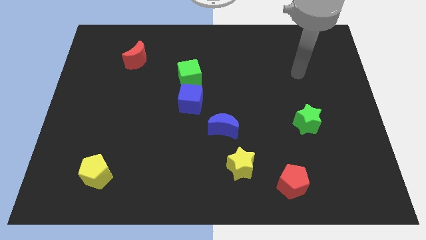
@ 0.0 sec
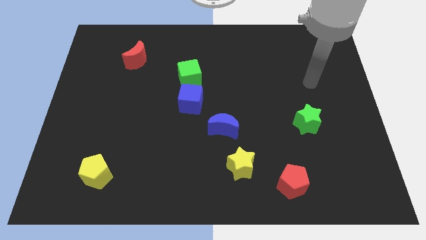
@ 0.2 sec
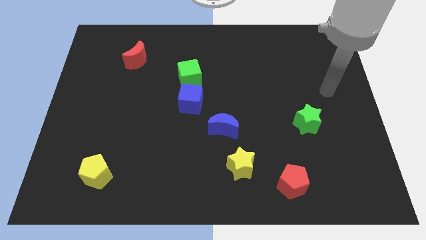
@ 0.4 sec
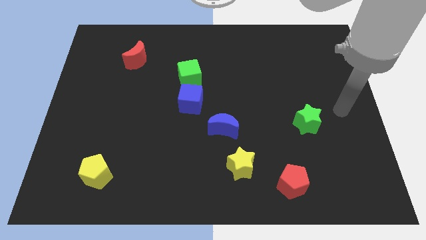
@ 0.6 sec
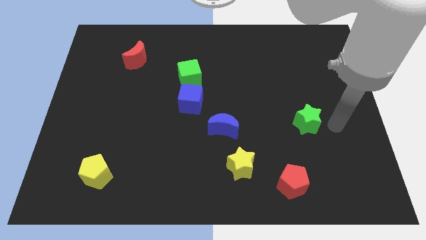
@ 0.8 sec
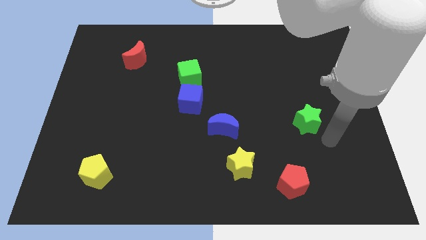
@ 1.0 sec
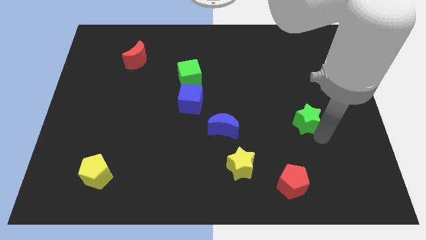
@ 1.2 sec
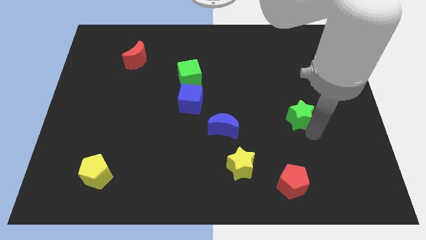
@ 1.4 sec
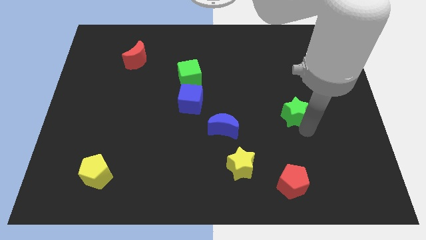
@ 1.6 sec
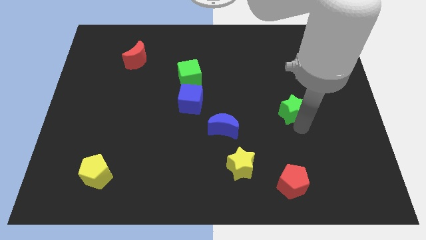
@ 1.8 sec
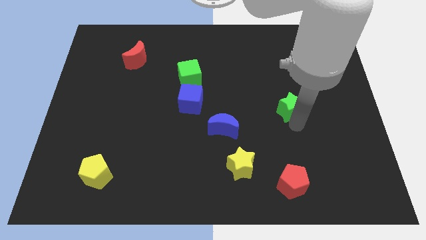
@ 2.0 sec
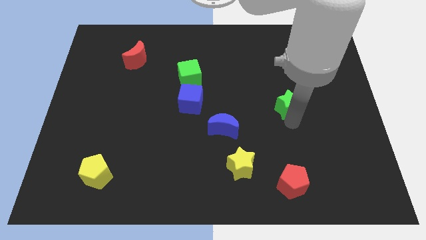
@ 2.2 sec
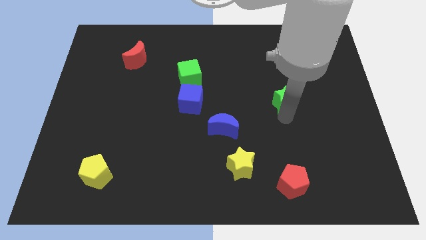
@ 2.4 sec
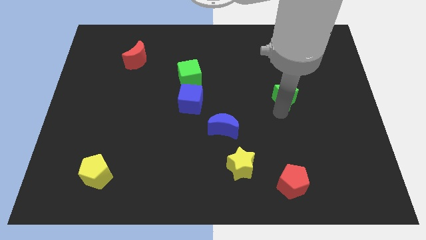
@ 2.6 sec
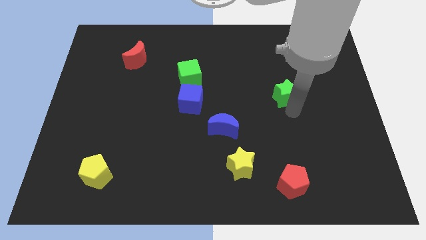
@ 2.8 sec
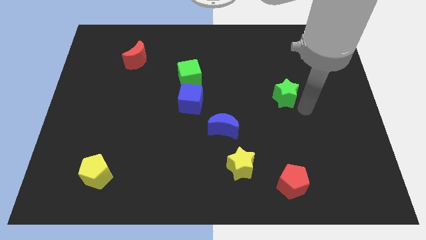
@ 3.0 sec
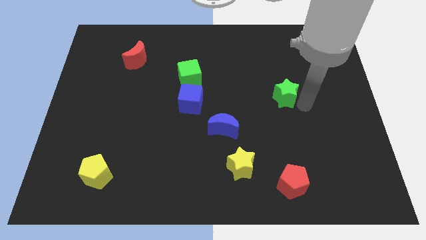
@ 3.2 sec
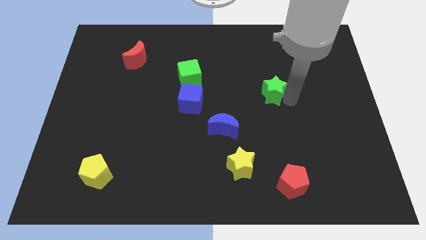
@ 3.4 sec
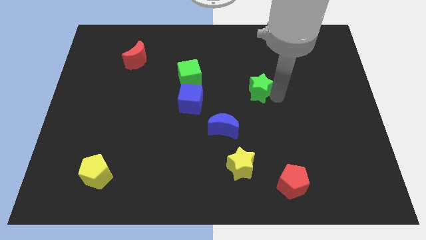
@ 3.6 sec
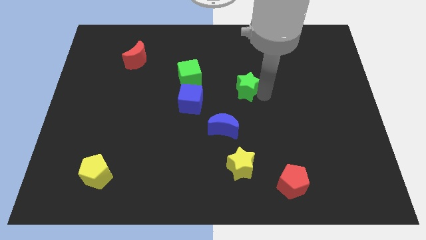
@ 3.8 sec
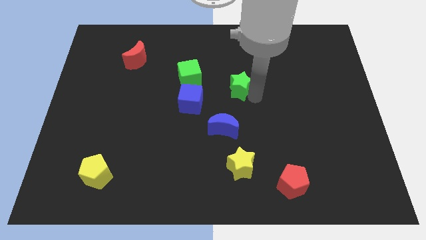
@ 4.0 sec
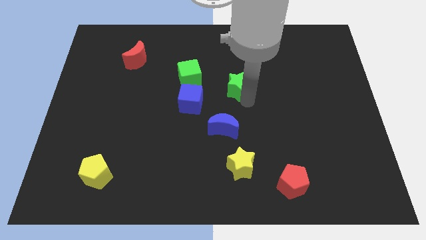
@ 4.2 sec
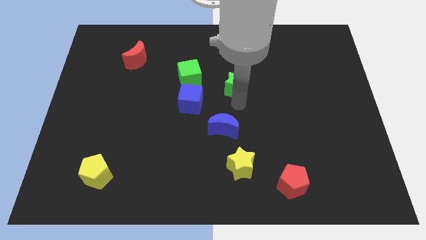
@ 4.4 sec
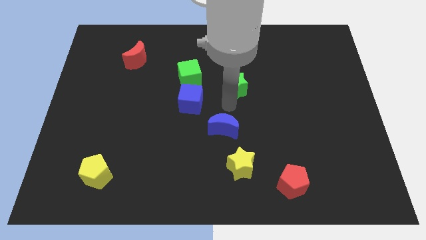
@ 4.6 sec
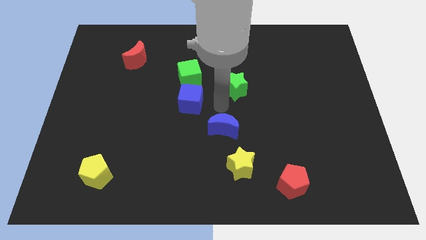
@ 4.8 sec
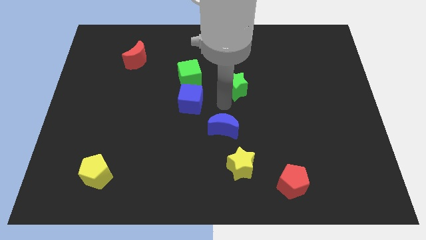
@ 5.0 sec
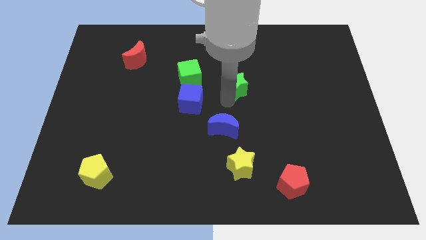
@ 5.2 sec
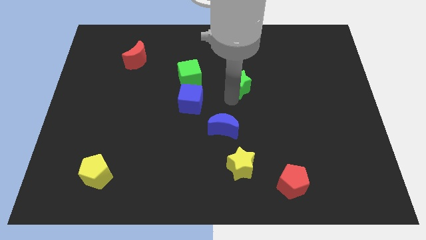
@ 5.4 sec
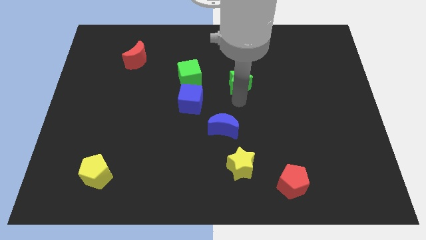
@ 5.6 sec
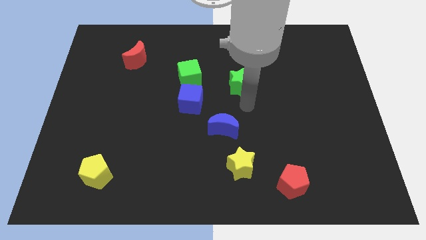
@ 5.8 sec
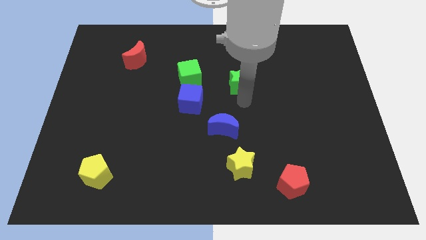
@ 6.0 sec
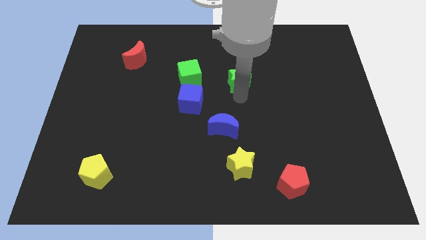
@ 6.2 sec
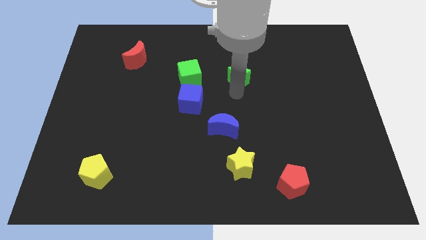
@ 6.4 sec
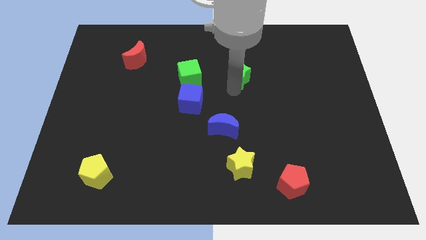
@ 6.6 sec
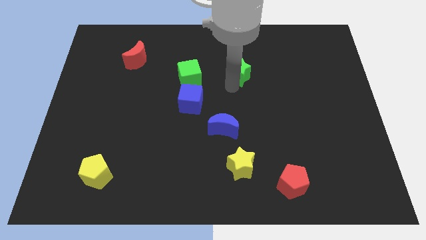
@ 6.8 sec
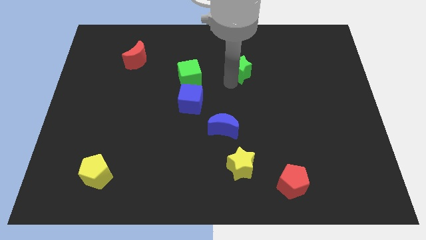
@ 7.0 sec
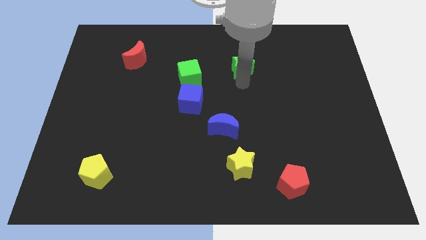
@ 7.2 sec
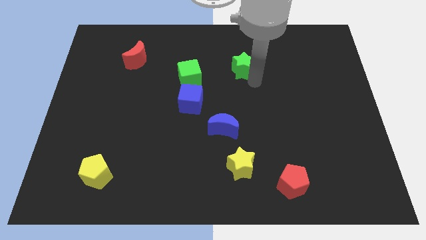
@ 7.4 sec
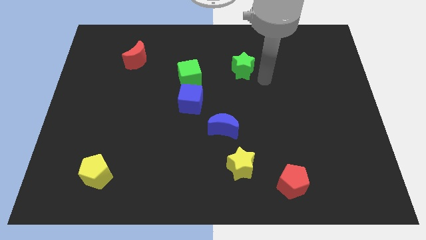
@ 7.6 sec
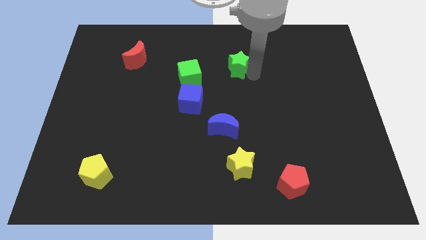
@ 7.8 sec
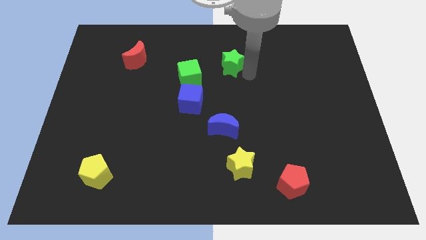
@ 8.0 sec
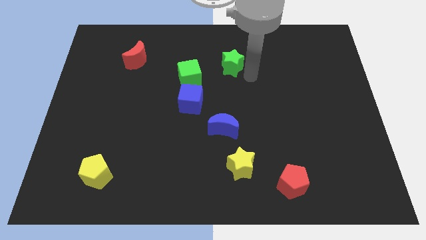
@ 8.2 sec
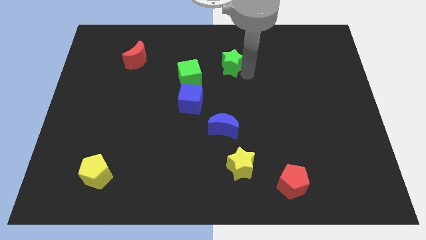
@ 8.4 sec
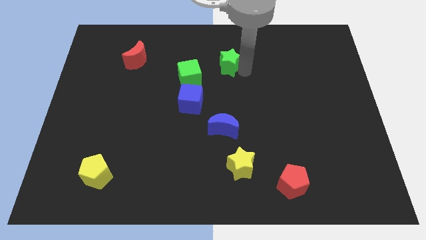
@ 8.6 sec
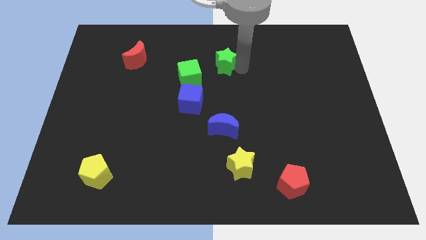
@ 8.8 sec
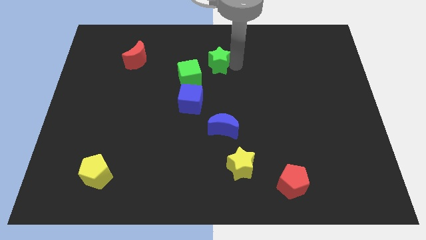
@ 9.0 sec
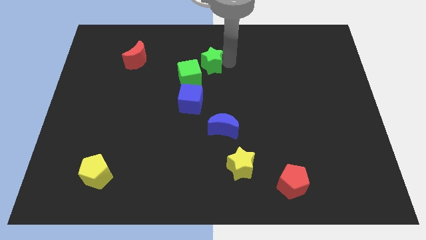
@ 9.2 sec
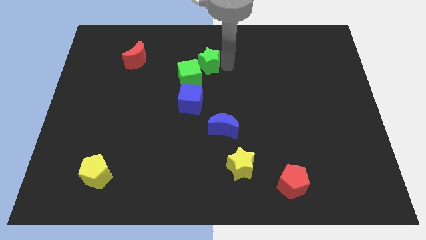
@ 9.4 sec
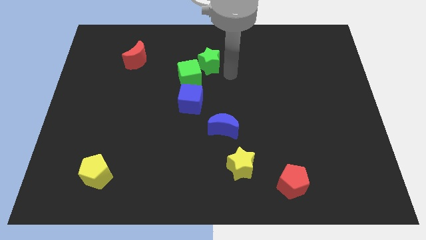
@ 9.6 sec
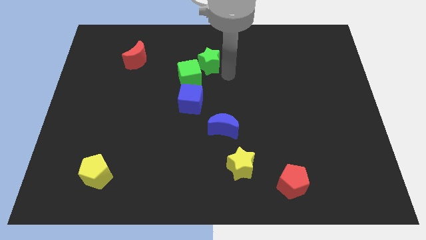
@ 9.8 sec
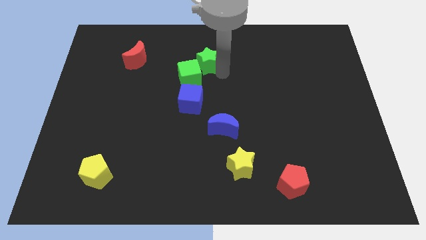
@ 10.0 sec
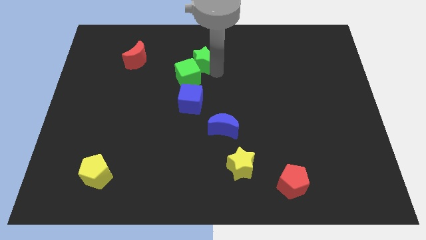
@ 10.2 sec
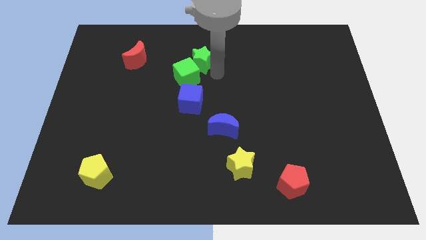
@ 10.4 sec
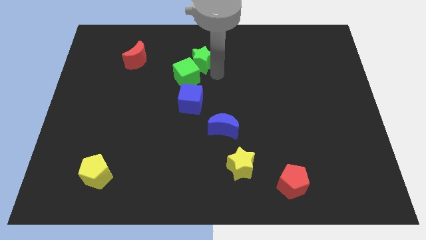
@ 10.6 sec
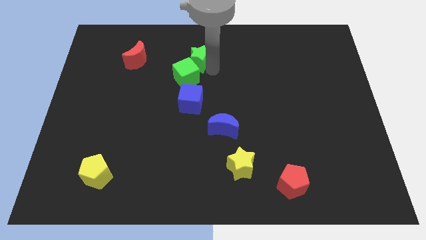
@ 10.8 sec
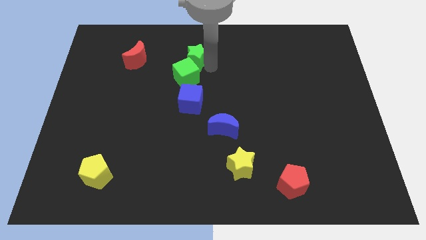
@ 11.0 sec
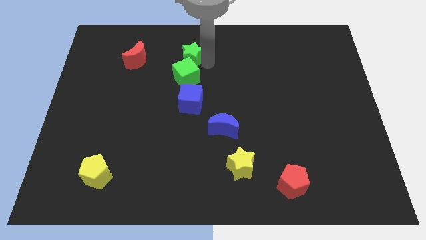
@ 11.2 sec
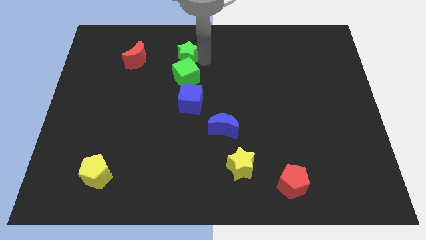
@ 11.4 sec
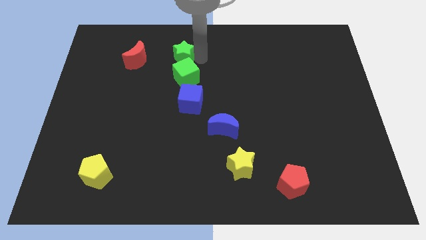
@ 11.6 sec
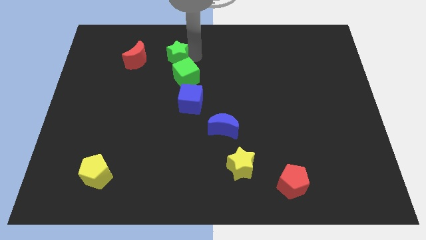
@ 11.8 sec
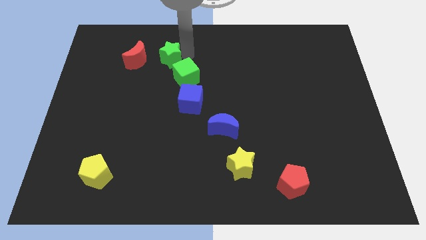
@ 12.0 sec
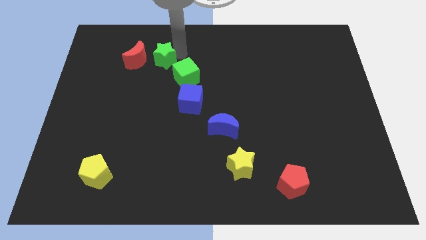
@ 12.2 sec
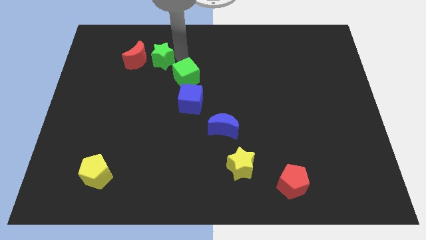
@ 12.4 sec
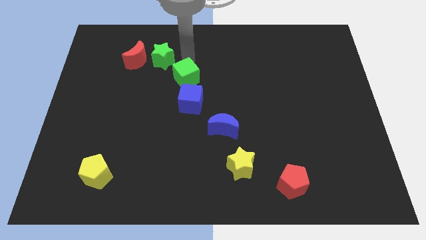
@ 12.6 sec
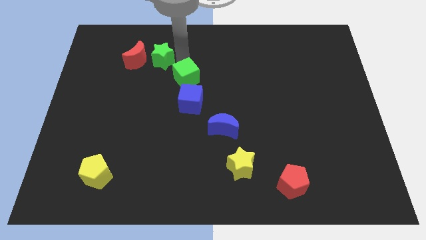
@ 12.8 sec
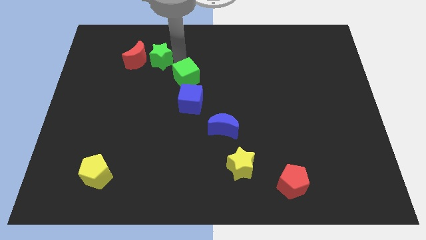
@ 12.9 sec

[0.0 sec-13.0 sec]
push the green star to the red moon
